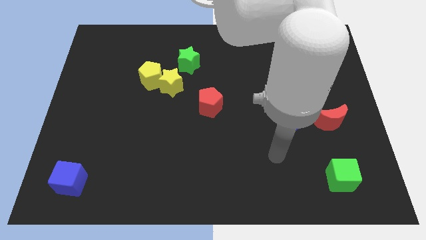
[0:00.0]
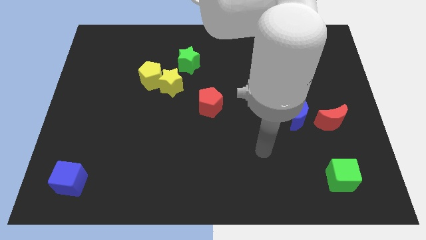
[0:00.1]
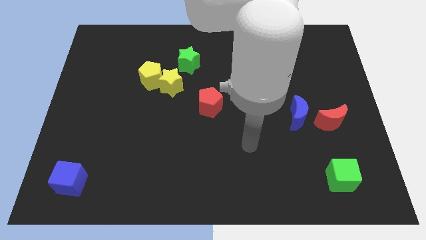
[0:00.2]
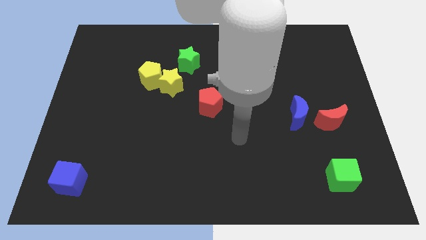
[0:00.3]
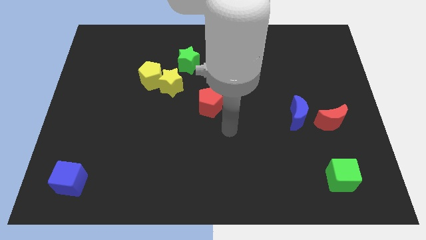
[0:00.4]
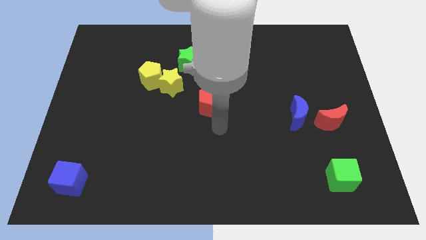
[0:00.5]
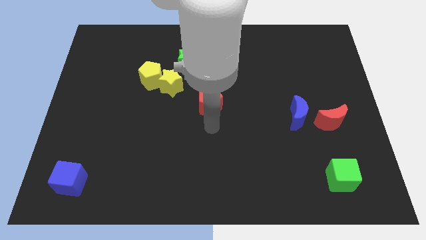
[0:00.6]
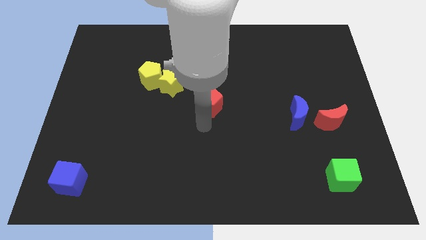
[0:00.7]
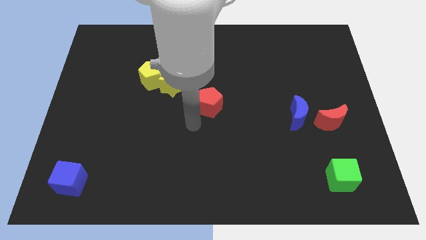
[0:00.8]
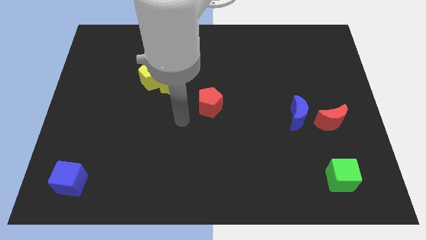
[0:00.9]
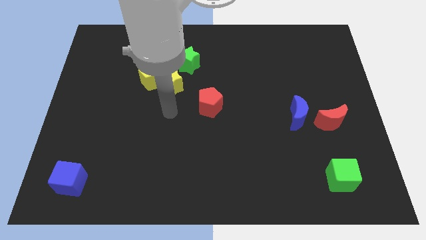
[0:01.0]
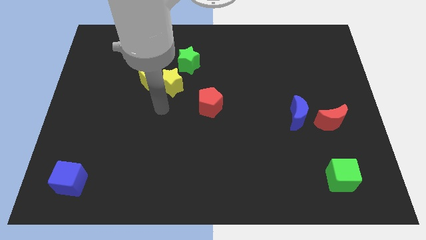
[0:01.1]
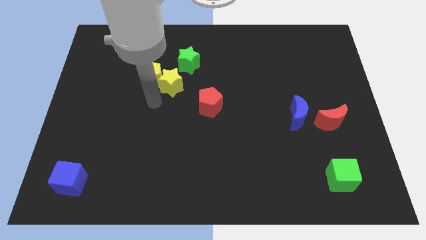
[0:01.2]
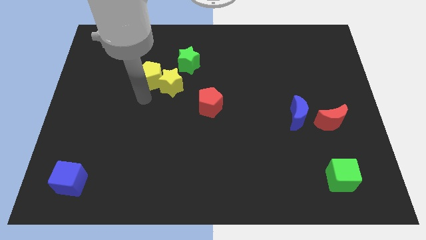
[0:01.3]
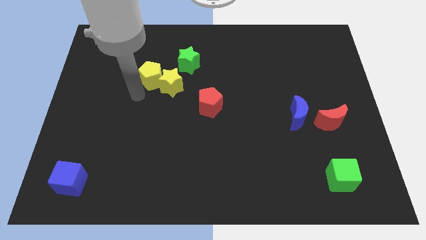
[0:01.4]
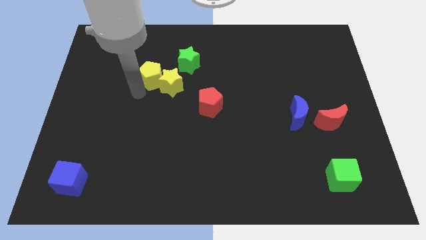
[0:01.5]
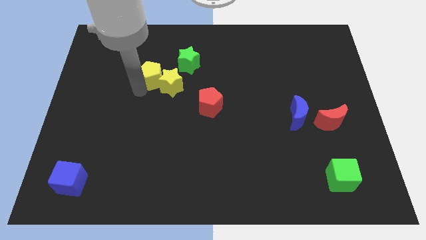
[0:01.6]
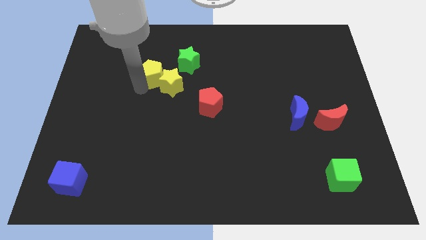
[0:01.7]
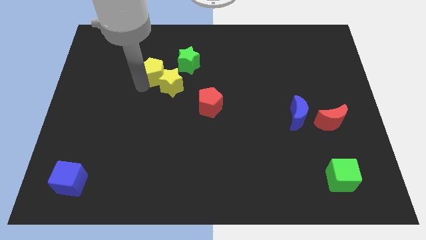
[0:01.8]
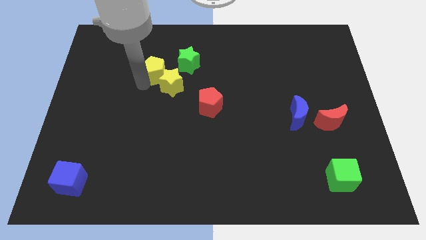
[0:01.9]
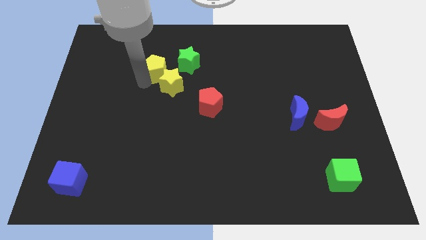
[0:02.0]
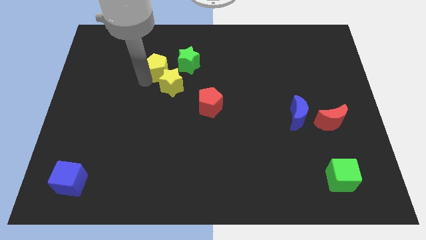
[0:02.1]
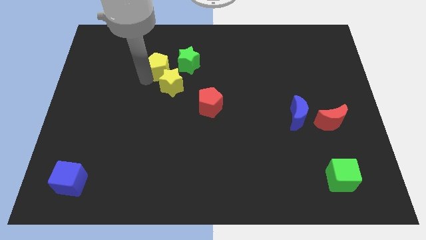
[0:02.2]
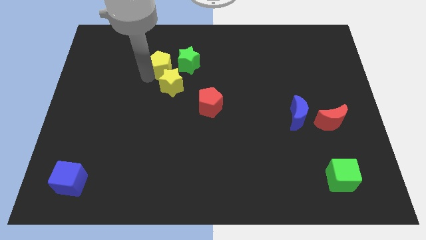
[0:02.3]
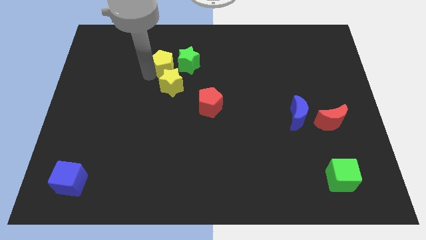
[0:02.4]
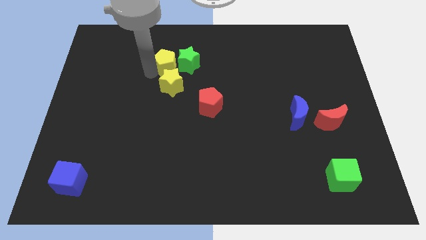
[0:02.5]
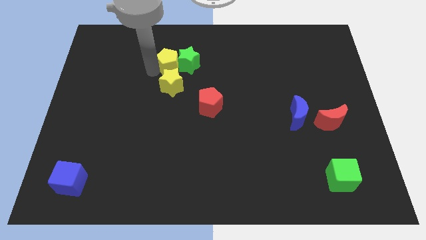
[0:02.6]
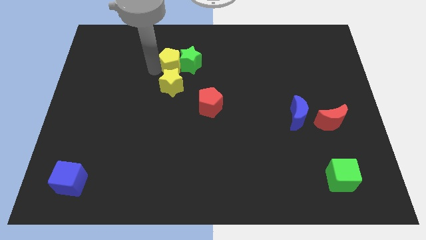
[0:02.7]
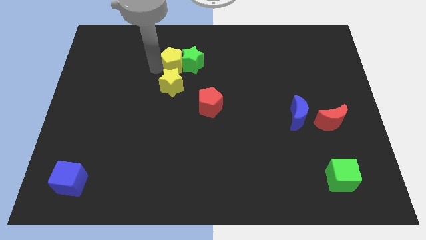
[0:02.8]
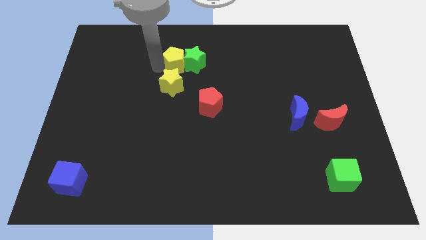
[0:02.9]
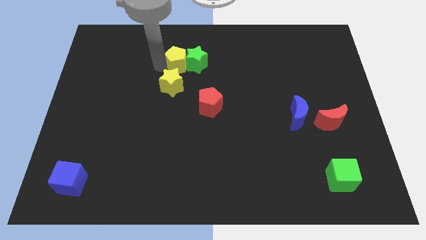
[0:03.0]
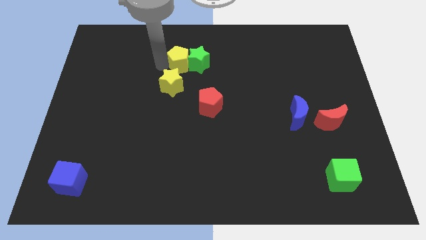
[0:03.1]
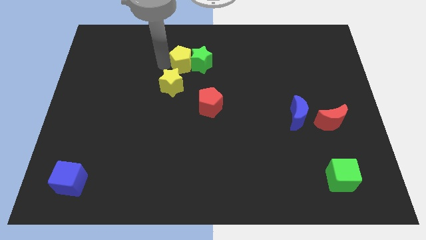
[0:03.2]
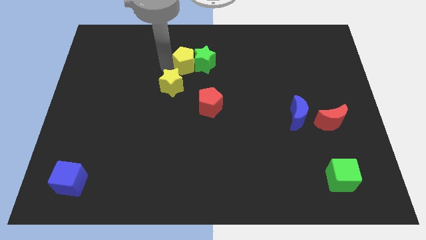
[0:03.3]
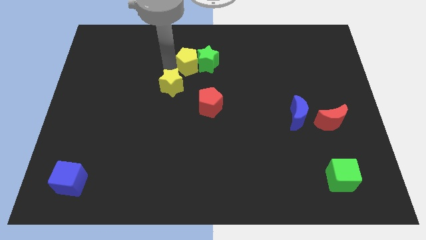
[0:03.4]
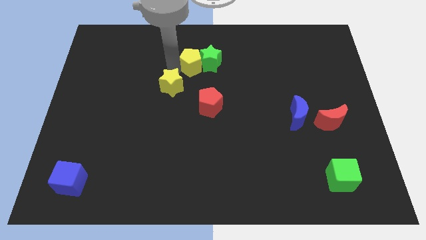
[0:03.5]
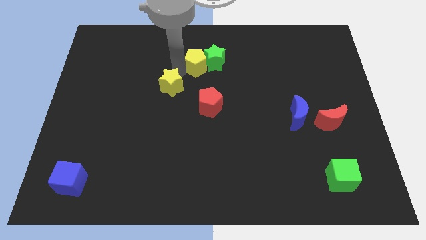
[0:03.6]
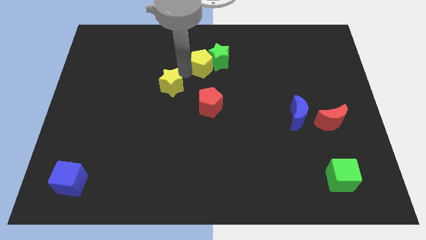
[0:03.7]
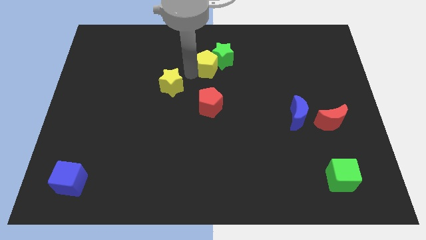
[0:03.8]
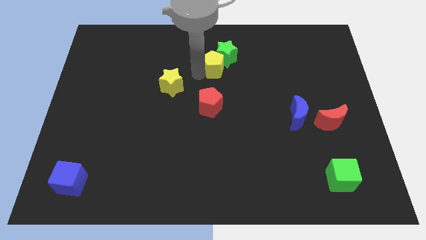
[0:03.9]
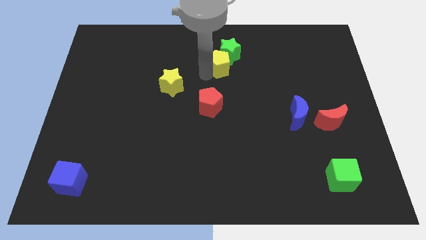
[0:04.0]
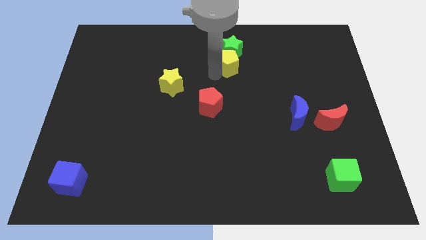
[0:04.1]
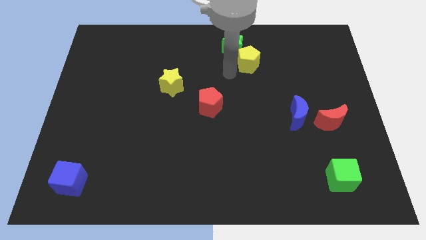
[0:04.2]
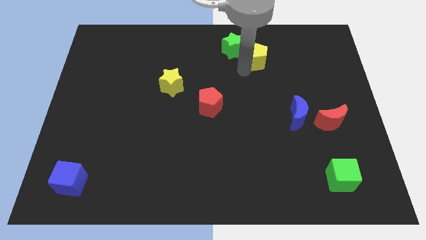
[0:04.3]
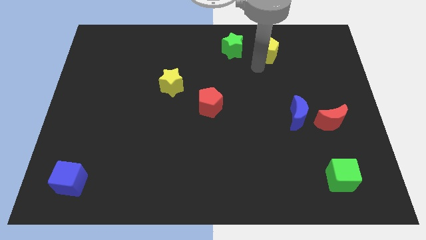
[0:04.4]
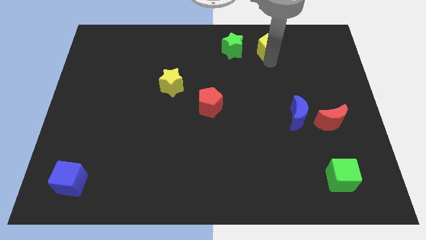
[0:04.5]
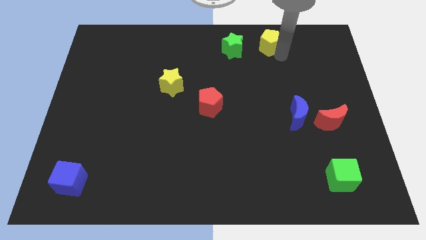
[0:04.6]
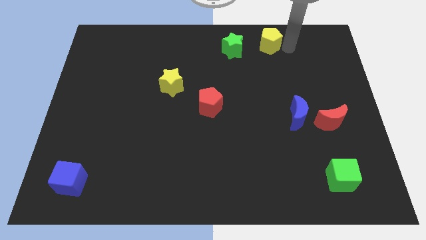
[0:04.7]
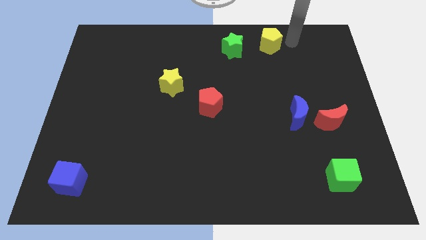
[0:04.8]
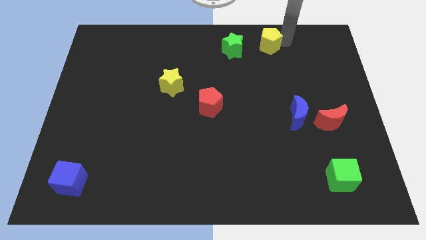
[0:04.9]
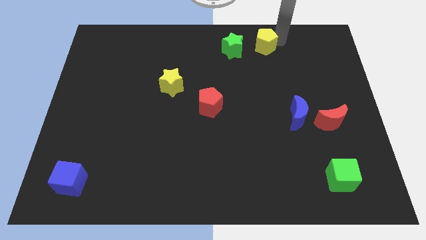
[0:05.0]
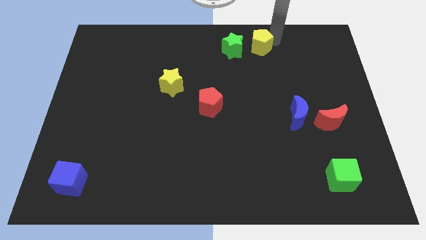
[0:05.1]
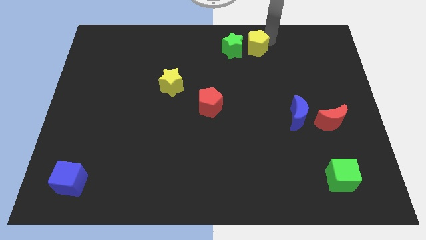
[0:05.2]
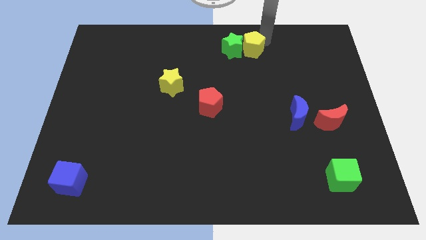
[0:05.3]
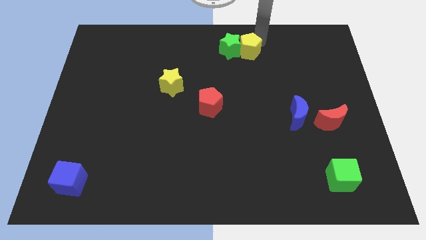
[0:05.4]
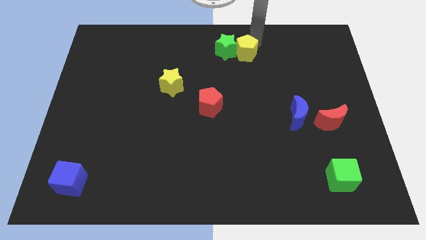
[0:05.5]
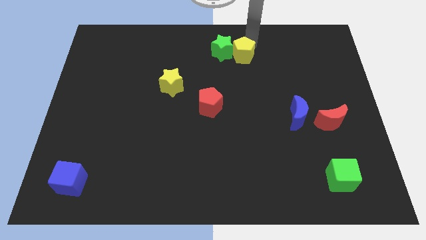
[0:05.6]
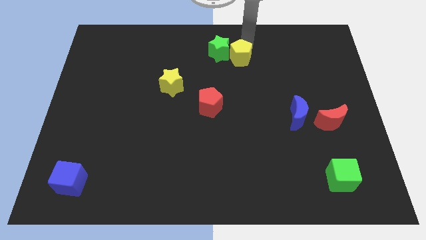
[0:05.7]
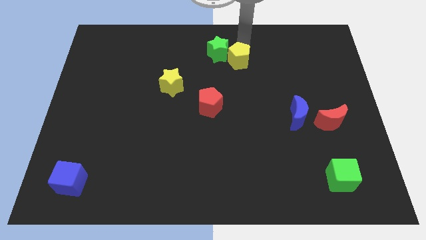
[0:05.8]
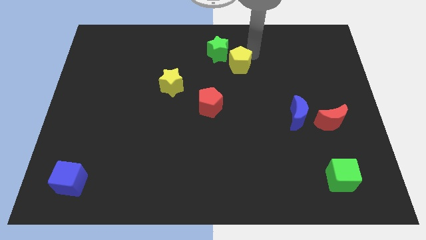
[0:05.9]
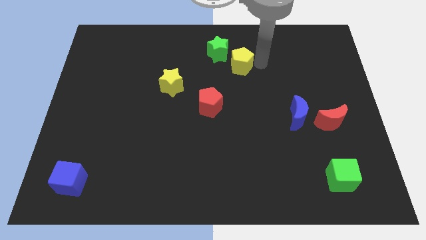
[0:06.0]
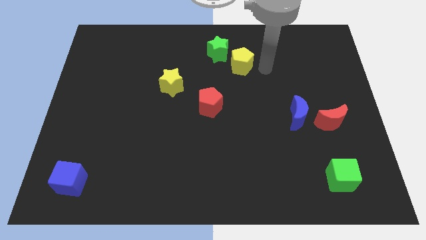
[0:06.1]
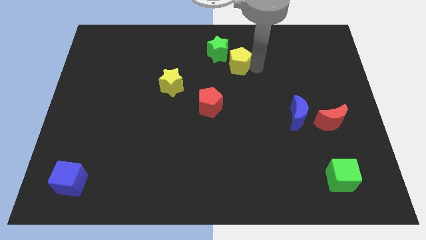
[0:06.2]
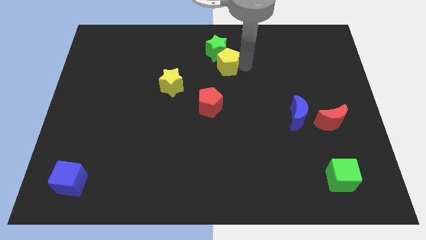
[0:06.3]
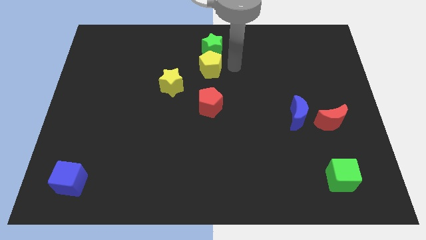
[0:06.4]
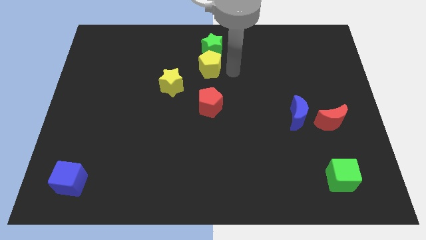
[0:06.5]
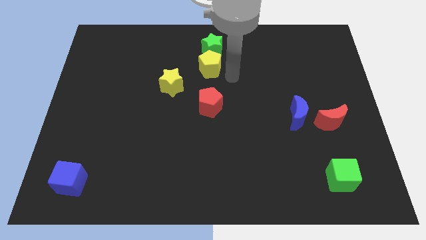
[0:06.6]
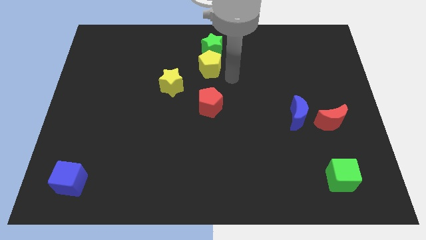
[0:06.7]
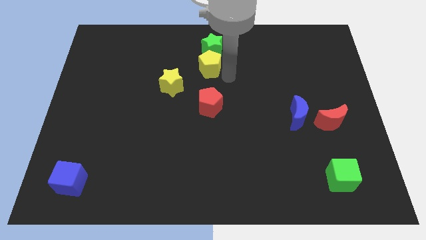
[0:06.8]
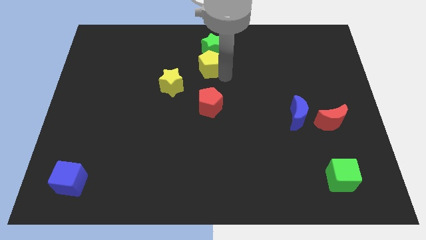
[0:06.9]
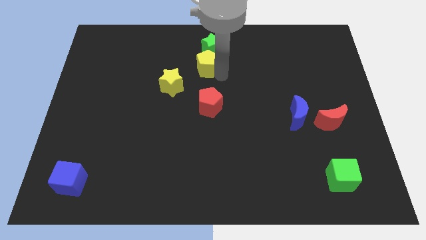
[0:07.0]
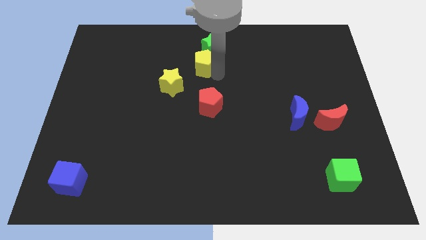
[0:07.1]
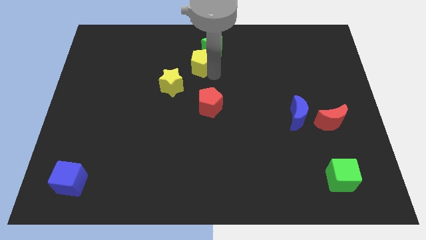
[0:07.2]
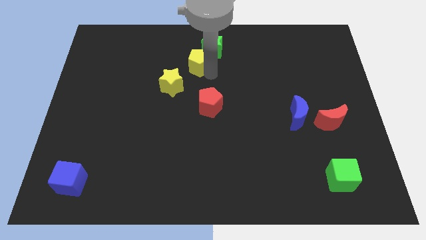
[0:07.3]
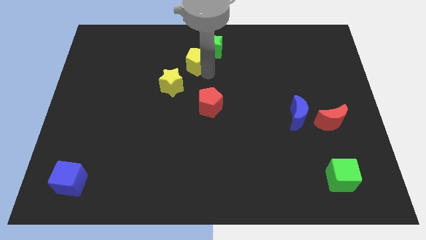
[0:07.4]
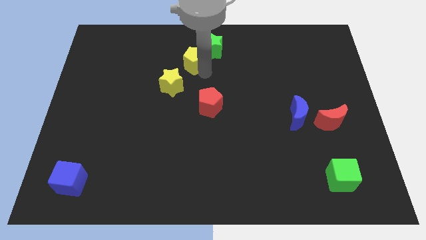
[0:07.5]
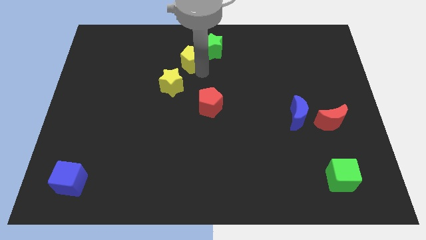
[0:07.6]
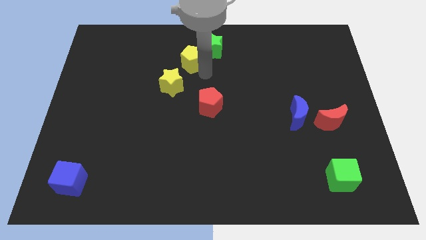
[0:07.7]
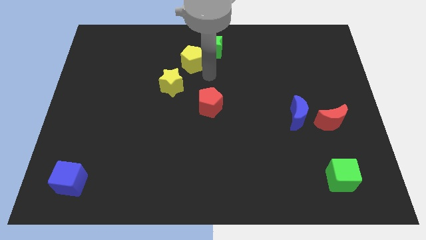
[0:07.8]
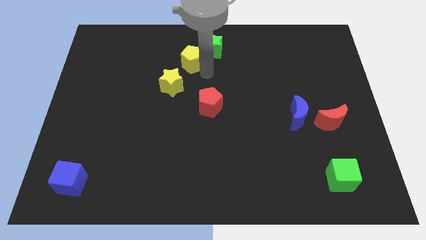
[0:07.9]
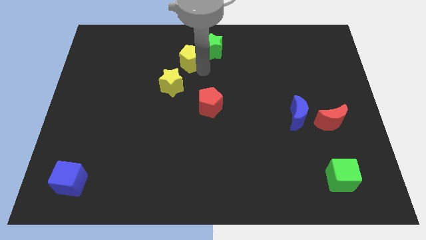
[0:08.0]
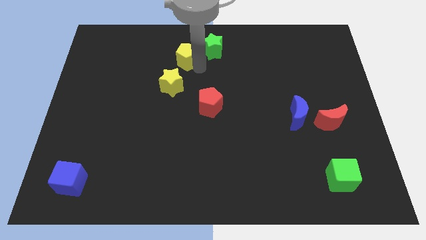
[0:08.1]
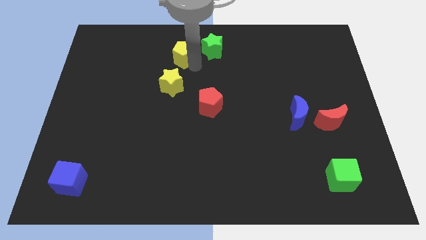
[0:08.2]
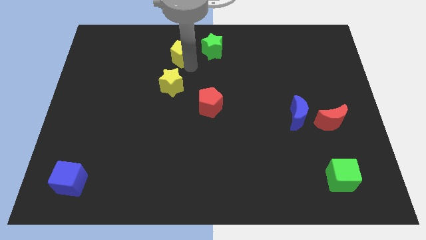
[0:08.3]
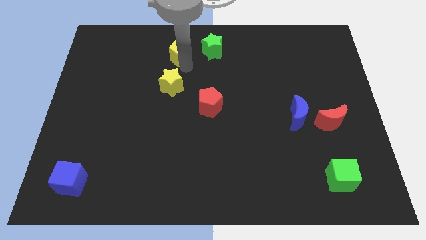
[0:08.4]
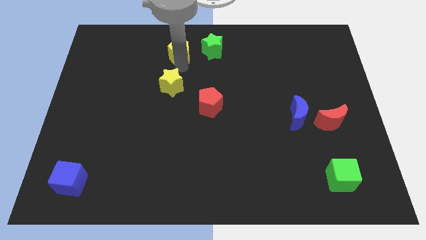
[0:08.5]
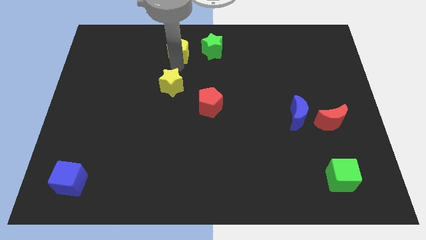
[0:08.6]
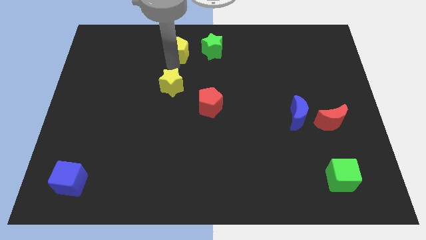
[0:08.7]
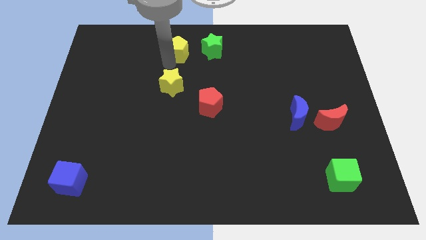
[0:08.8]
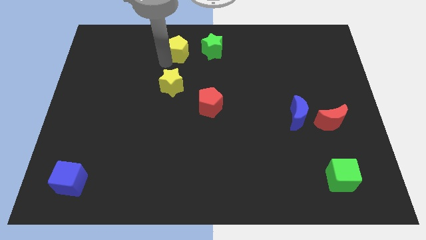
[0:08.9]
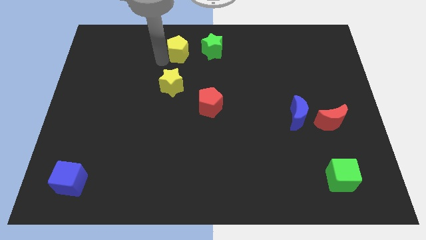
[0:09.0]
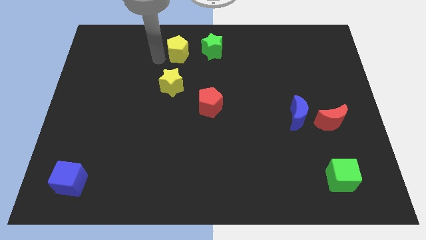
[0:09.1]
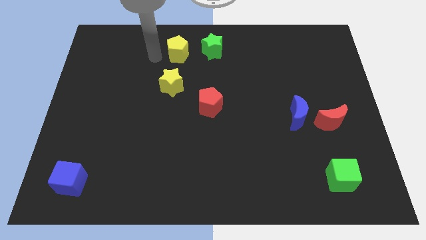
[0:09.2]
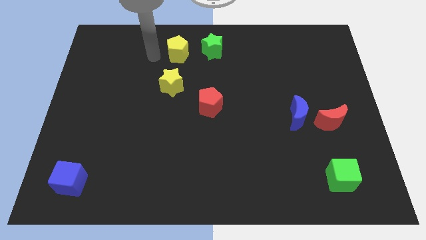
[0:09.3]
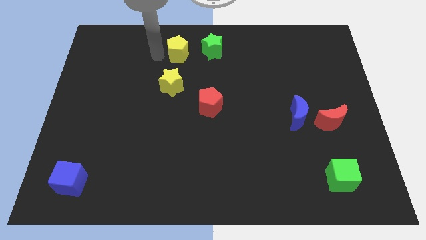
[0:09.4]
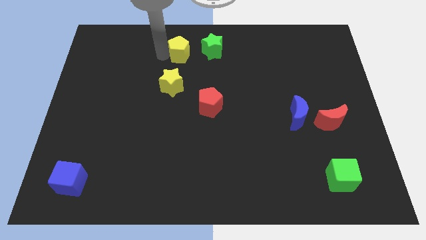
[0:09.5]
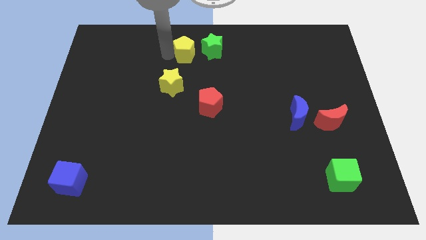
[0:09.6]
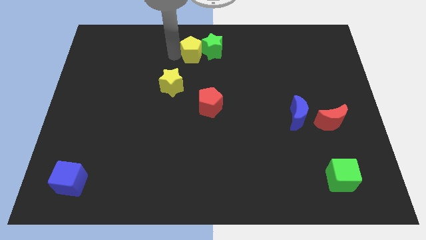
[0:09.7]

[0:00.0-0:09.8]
put the yellow pentagon to the top
